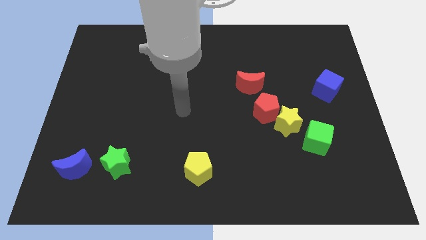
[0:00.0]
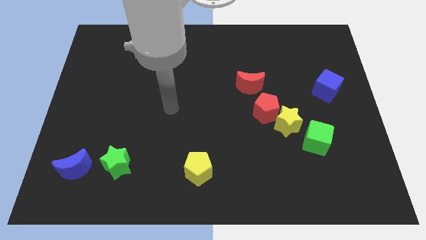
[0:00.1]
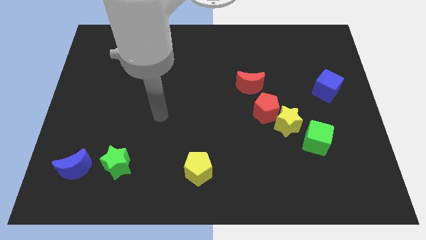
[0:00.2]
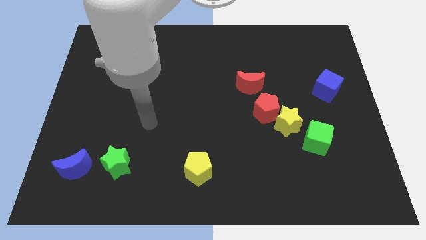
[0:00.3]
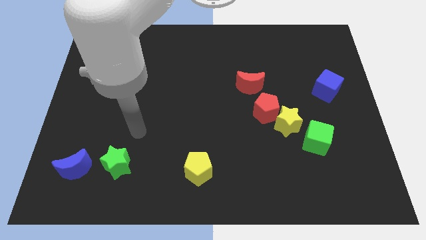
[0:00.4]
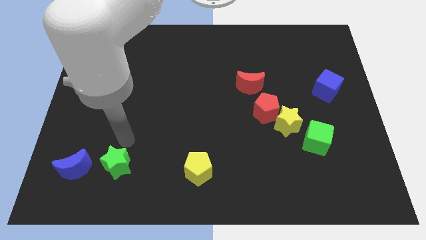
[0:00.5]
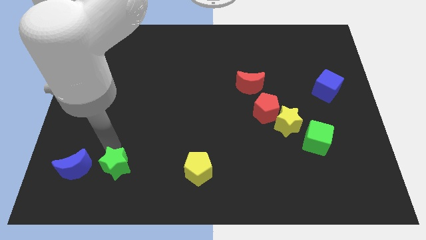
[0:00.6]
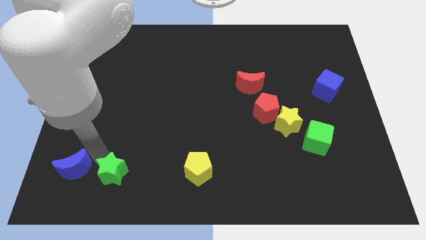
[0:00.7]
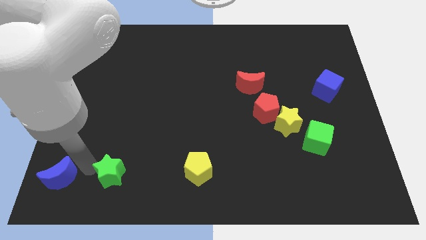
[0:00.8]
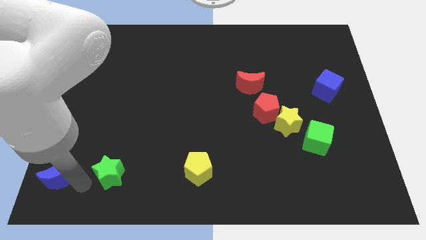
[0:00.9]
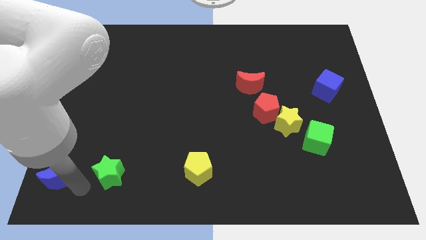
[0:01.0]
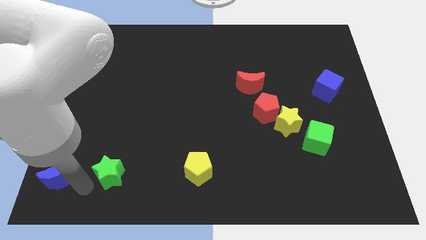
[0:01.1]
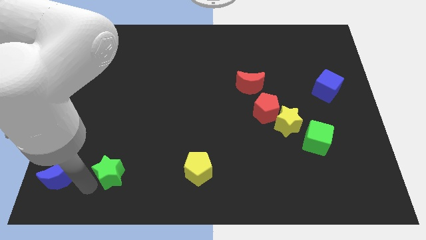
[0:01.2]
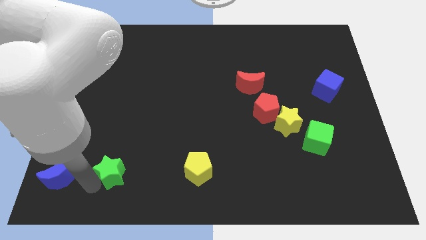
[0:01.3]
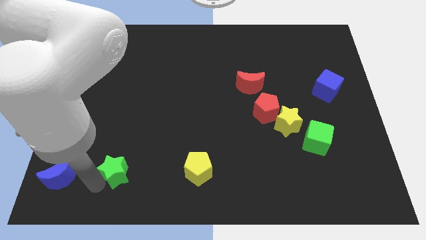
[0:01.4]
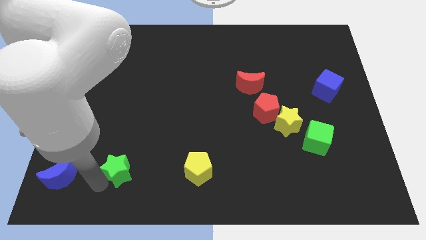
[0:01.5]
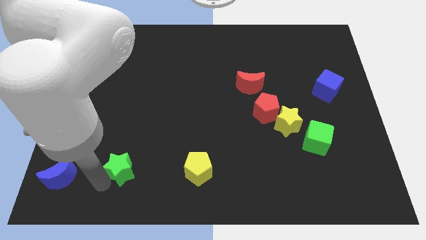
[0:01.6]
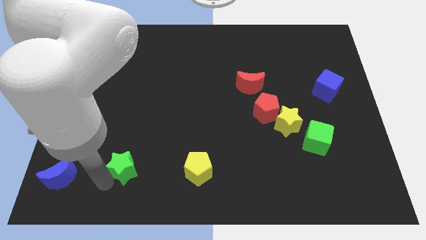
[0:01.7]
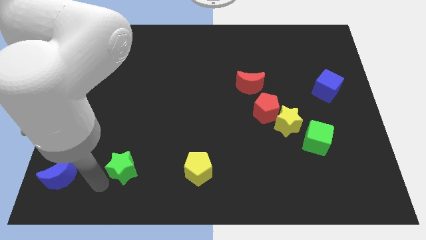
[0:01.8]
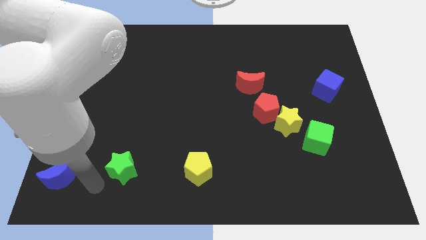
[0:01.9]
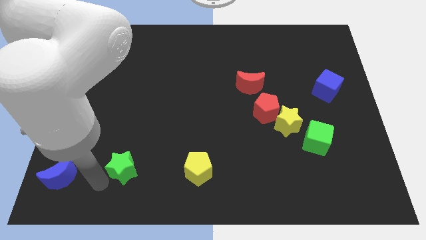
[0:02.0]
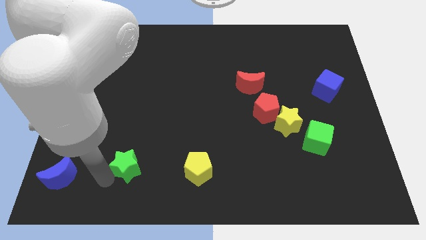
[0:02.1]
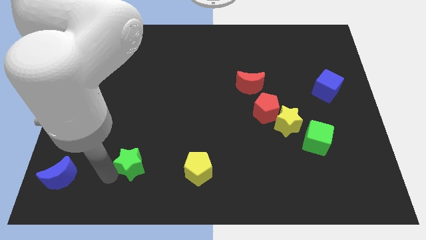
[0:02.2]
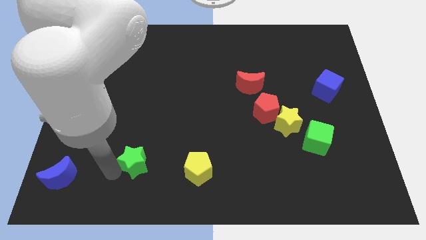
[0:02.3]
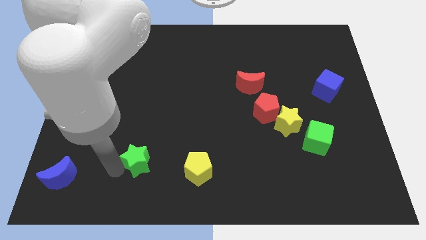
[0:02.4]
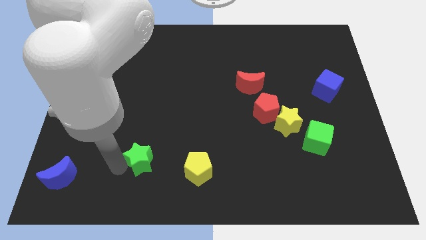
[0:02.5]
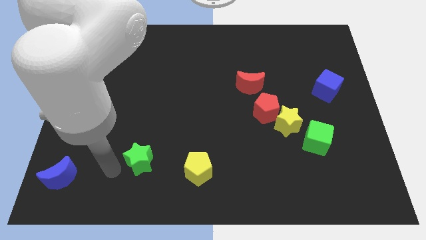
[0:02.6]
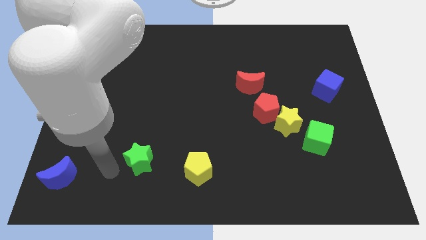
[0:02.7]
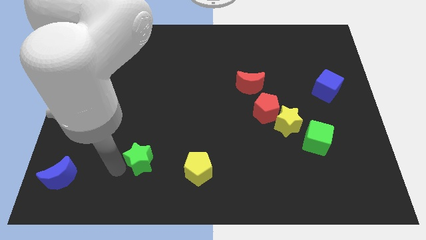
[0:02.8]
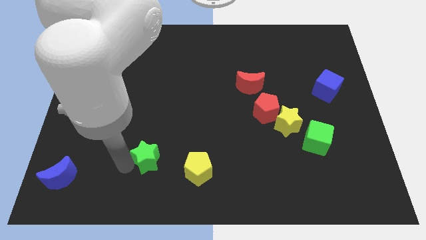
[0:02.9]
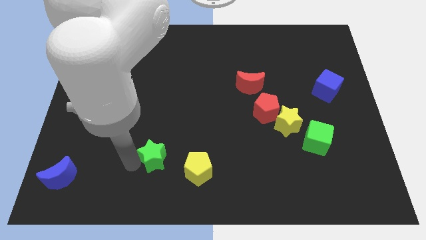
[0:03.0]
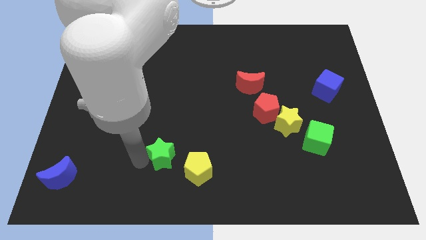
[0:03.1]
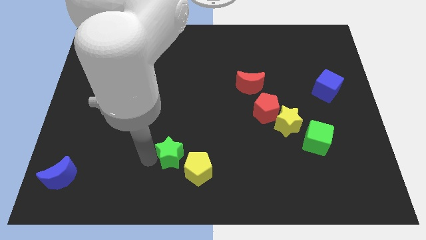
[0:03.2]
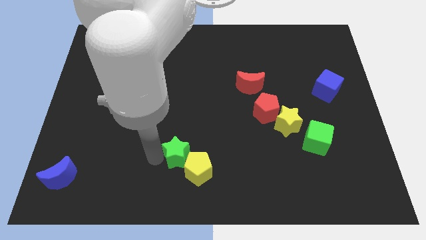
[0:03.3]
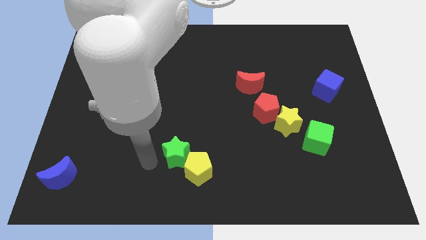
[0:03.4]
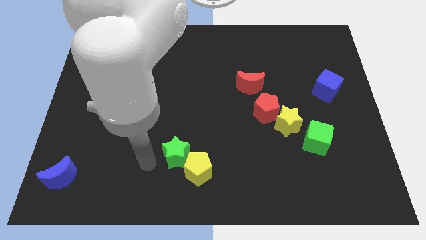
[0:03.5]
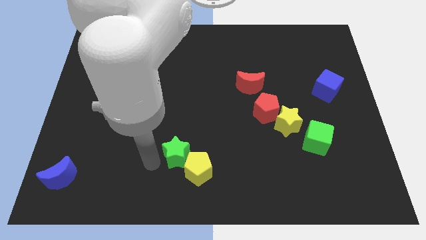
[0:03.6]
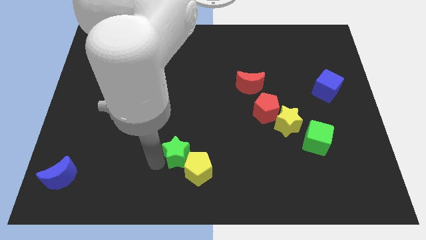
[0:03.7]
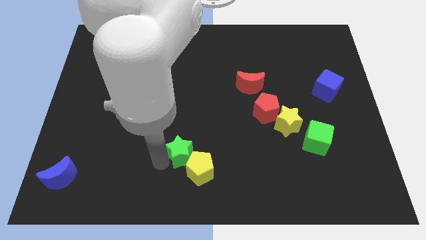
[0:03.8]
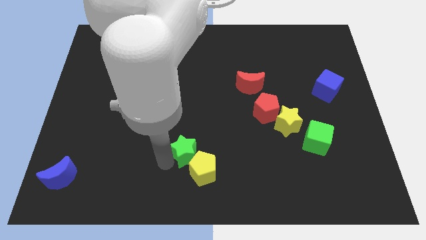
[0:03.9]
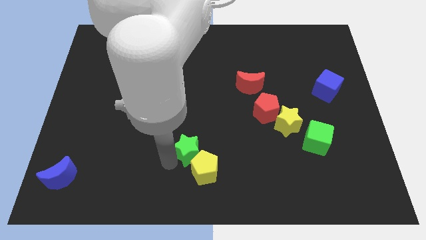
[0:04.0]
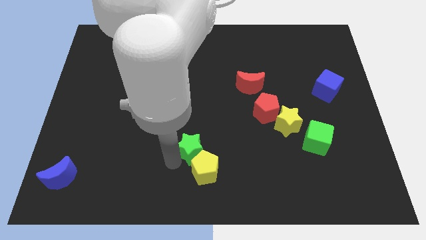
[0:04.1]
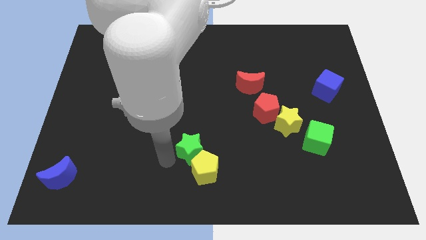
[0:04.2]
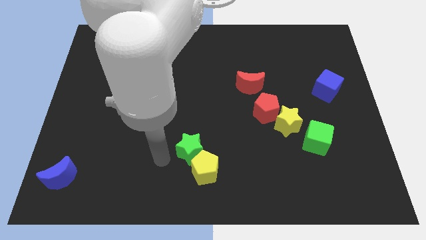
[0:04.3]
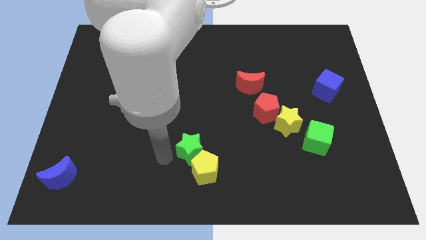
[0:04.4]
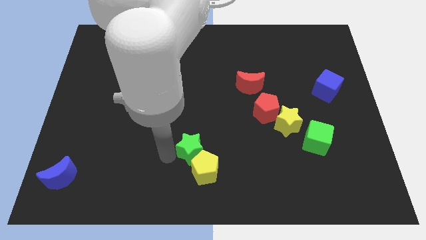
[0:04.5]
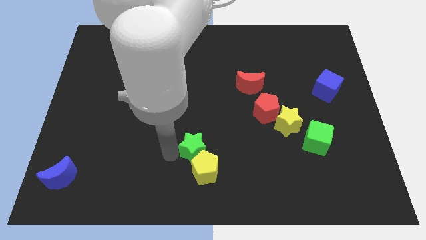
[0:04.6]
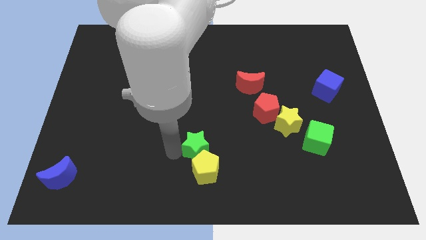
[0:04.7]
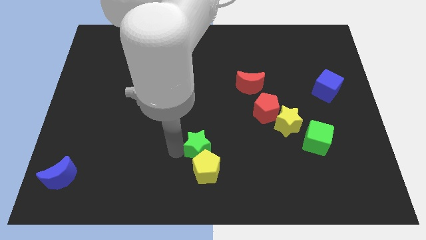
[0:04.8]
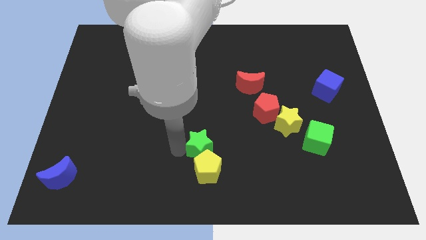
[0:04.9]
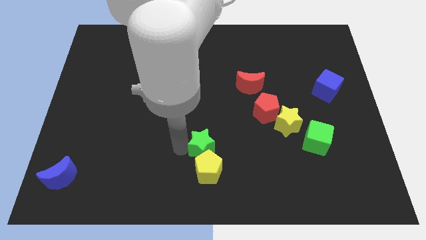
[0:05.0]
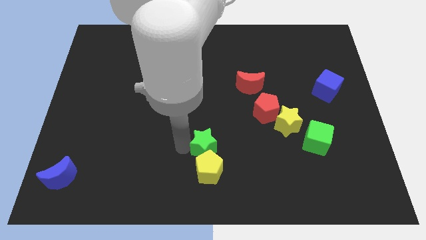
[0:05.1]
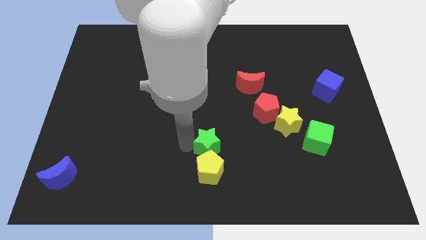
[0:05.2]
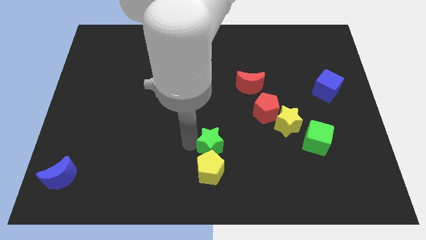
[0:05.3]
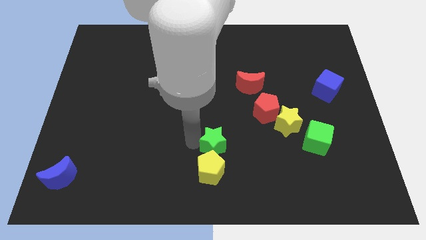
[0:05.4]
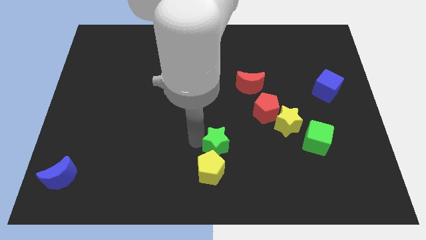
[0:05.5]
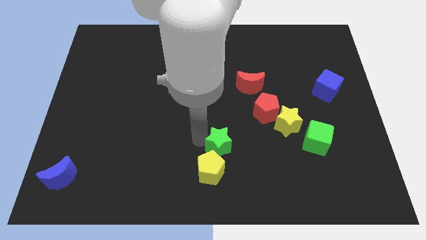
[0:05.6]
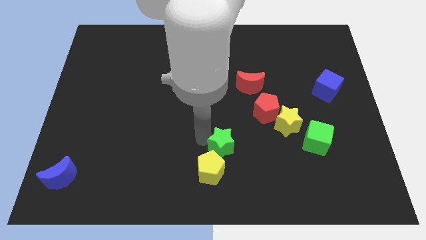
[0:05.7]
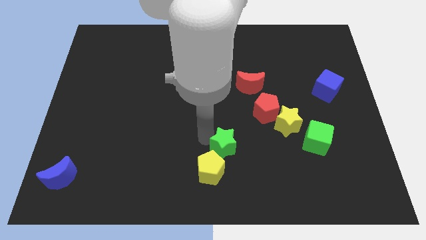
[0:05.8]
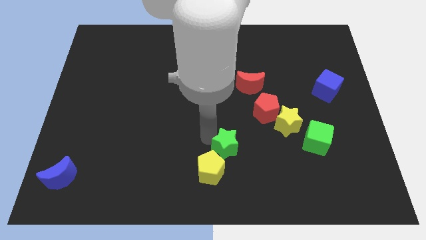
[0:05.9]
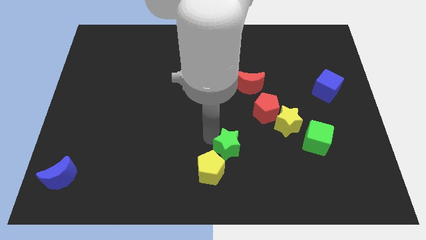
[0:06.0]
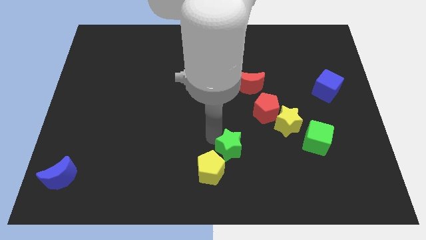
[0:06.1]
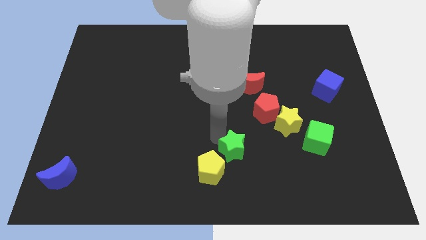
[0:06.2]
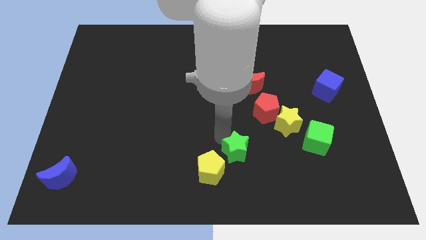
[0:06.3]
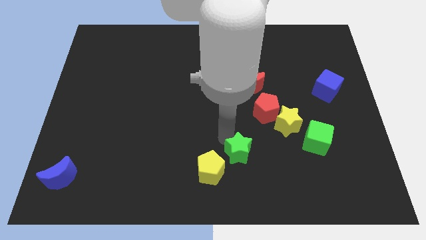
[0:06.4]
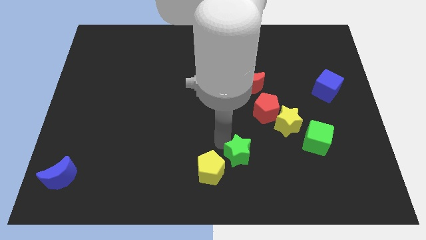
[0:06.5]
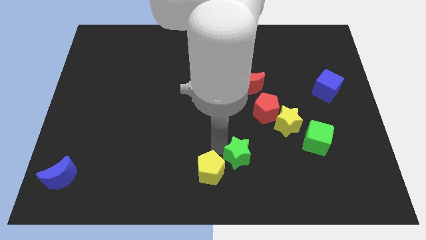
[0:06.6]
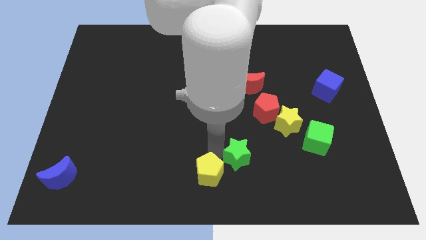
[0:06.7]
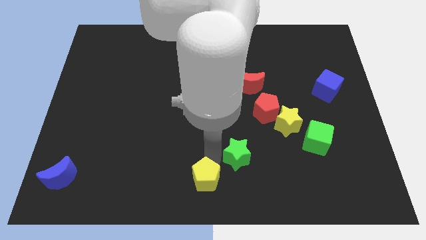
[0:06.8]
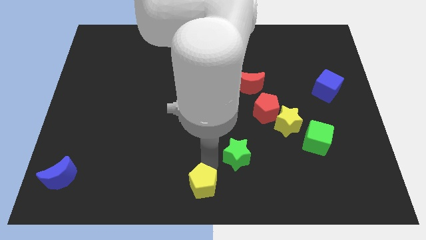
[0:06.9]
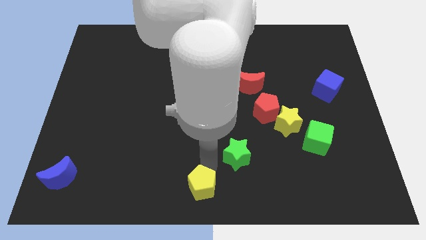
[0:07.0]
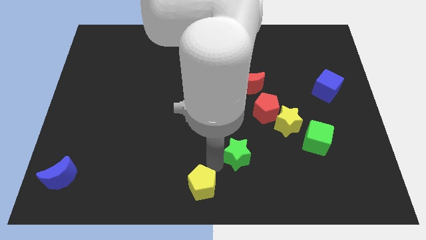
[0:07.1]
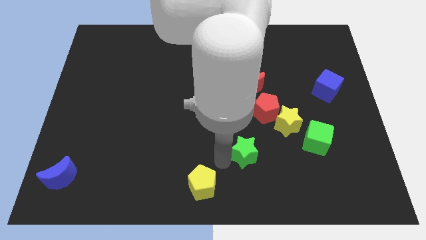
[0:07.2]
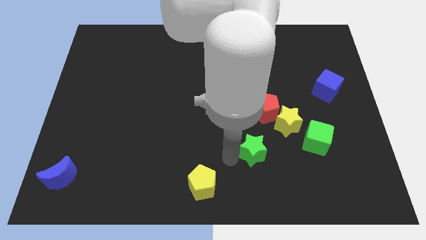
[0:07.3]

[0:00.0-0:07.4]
put the green star to the bottom left side of the yellow star
